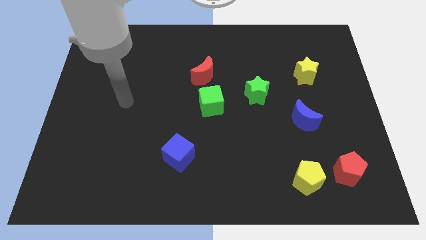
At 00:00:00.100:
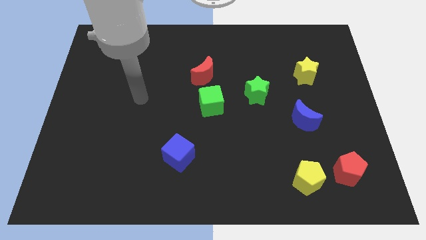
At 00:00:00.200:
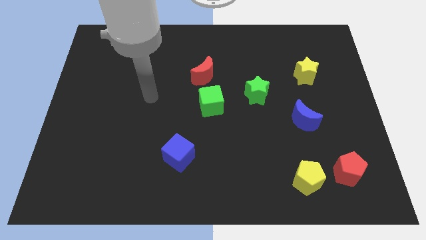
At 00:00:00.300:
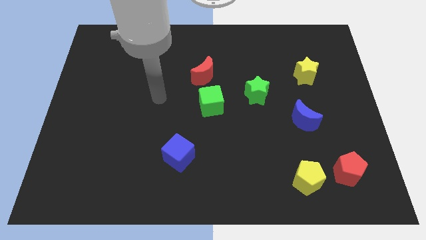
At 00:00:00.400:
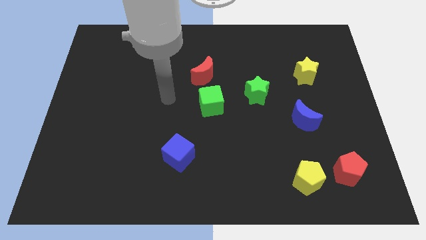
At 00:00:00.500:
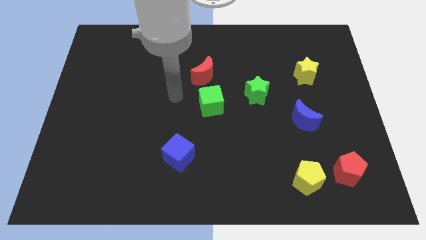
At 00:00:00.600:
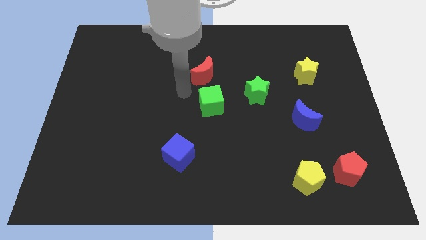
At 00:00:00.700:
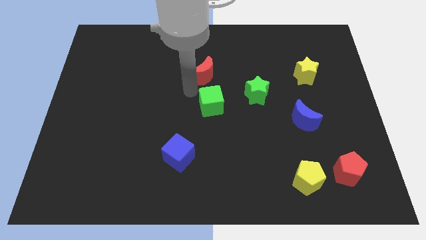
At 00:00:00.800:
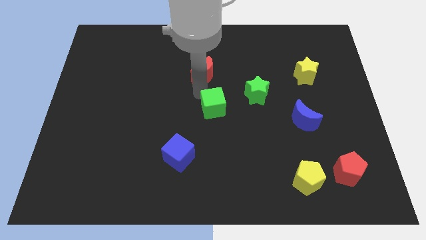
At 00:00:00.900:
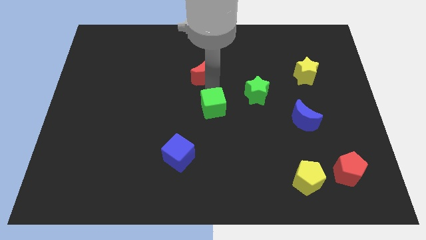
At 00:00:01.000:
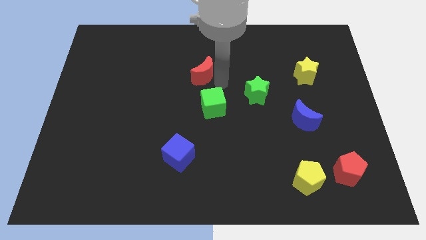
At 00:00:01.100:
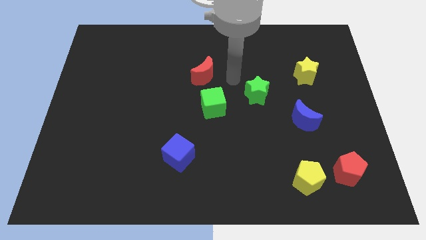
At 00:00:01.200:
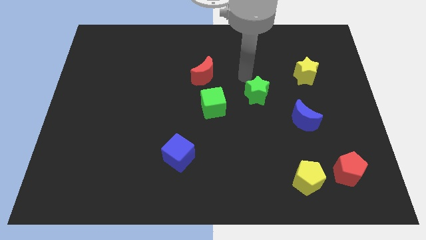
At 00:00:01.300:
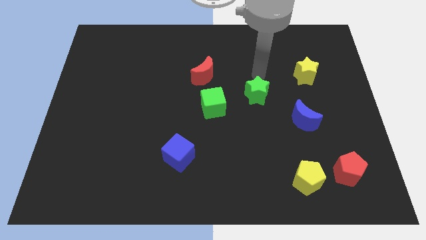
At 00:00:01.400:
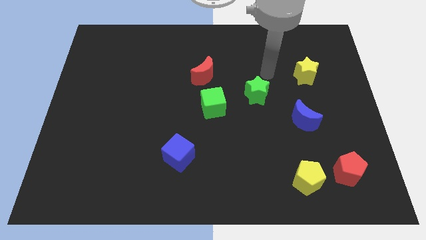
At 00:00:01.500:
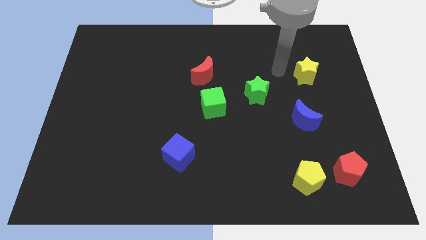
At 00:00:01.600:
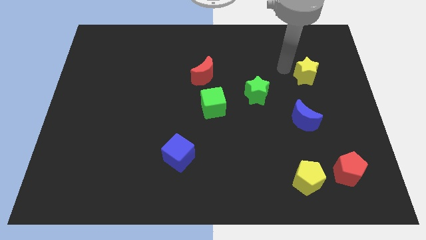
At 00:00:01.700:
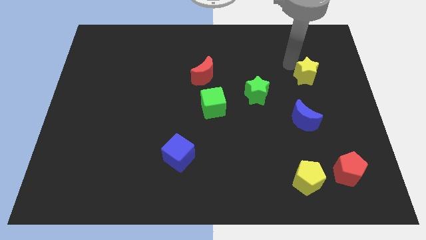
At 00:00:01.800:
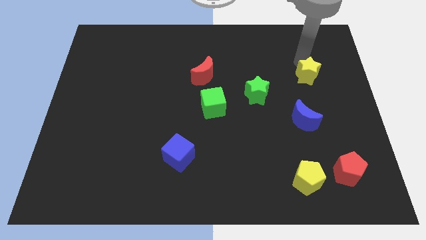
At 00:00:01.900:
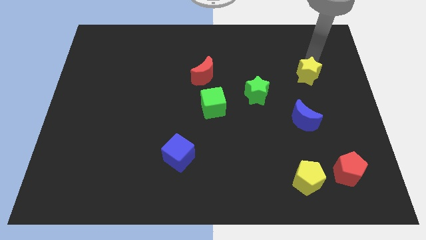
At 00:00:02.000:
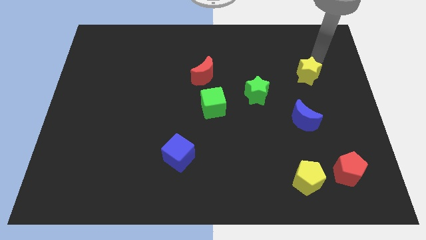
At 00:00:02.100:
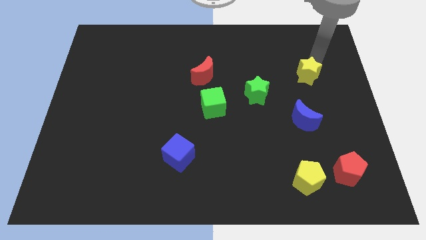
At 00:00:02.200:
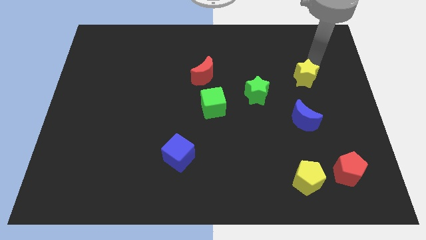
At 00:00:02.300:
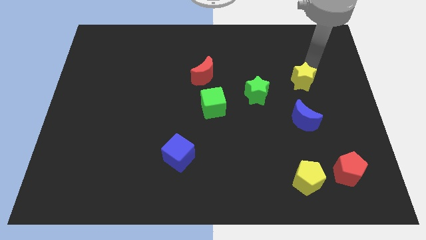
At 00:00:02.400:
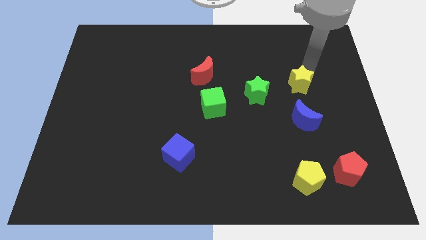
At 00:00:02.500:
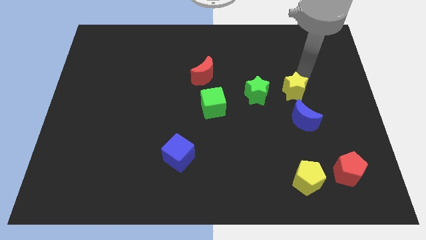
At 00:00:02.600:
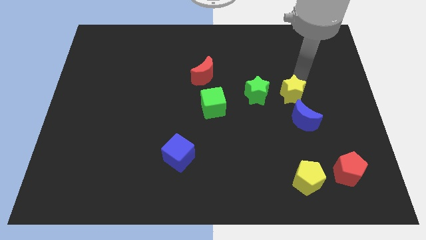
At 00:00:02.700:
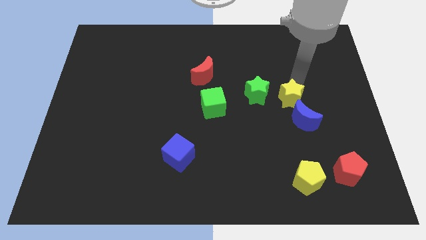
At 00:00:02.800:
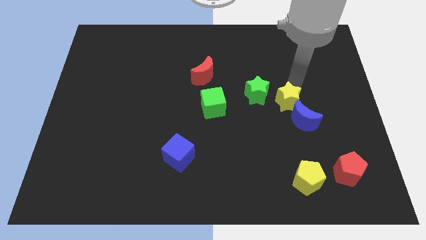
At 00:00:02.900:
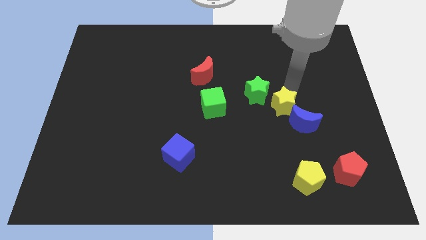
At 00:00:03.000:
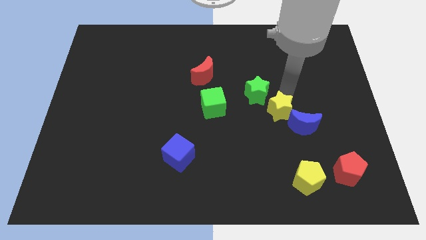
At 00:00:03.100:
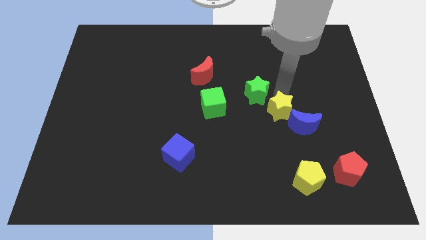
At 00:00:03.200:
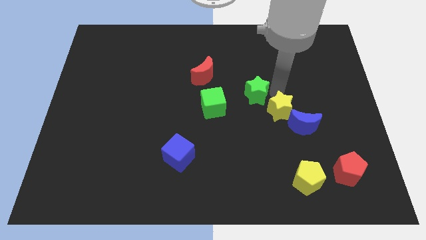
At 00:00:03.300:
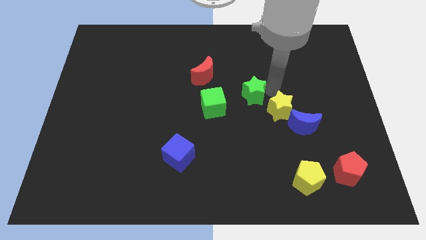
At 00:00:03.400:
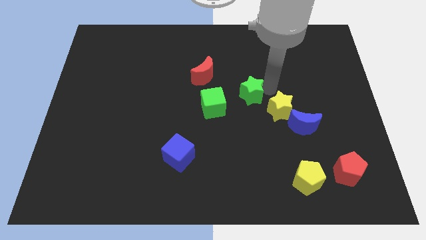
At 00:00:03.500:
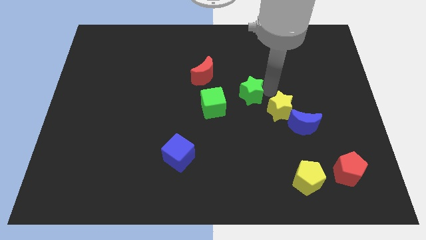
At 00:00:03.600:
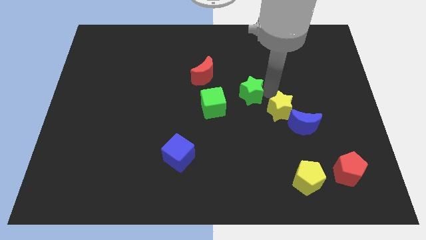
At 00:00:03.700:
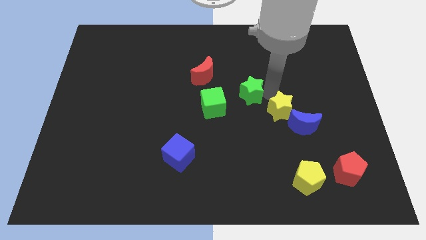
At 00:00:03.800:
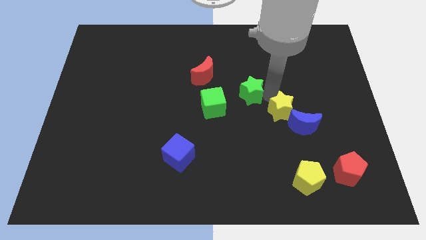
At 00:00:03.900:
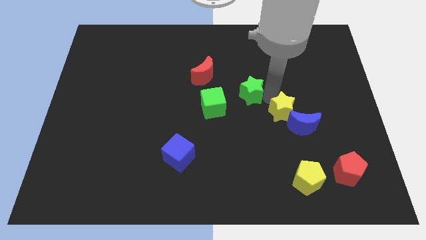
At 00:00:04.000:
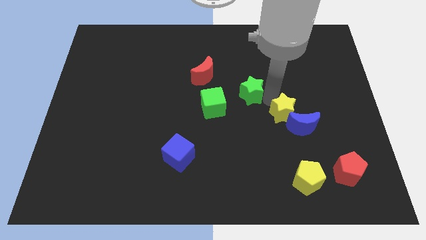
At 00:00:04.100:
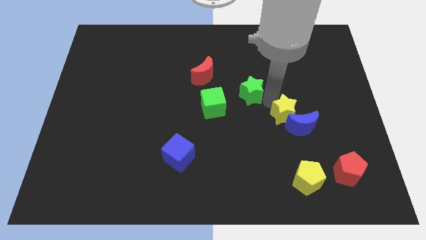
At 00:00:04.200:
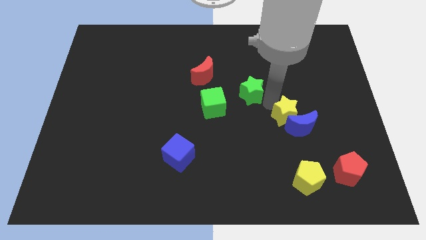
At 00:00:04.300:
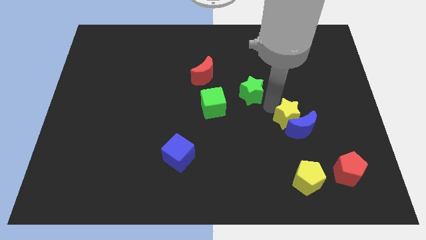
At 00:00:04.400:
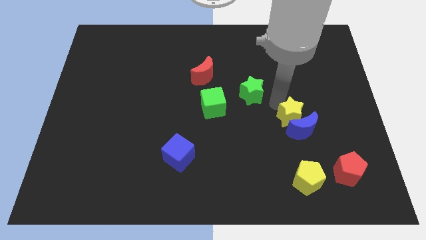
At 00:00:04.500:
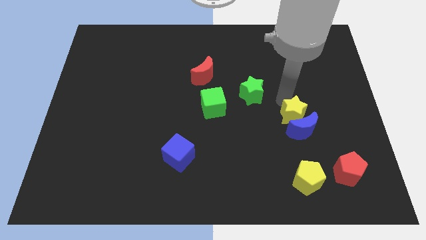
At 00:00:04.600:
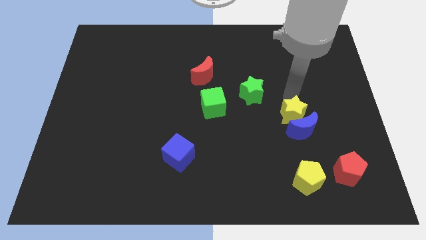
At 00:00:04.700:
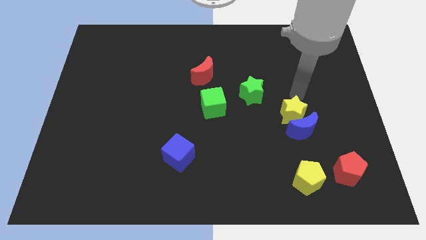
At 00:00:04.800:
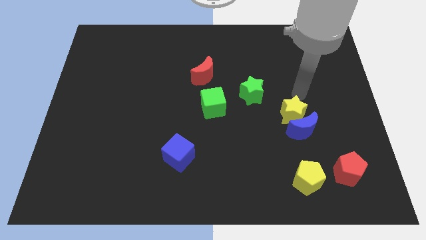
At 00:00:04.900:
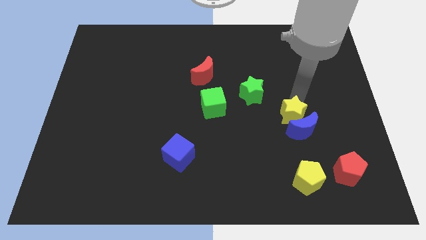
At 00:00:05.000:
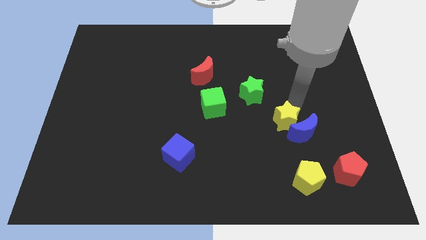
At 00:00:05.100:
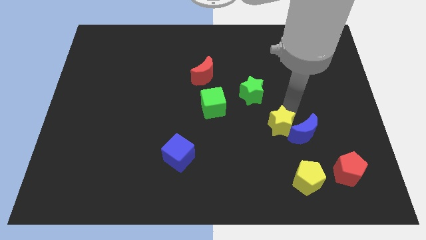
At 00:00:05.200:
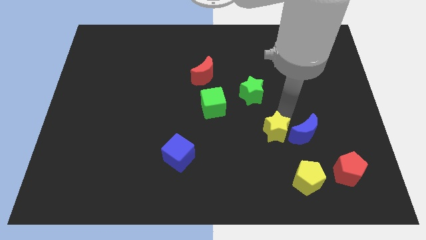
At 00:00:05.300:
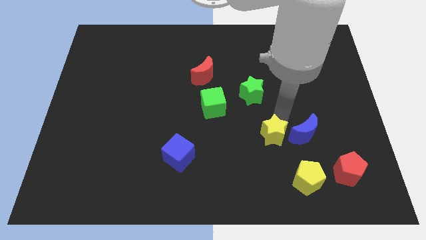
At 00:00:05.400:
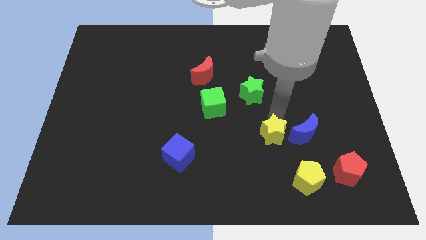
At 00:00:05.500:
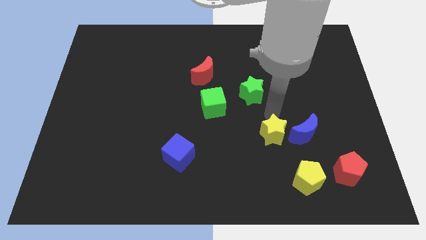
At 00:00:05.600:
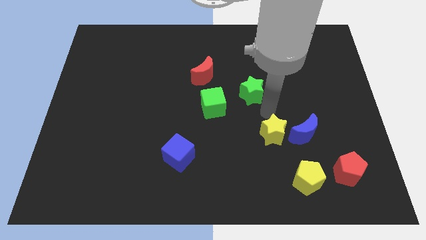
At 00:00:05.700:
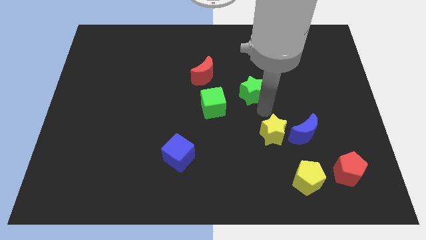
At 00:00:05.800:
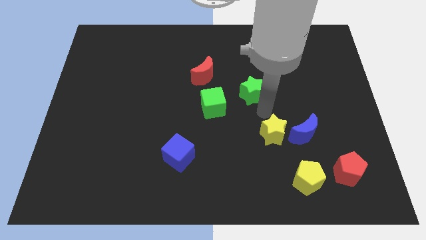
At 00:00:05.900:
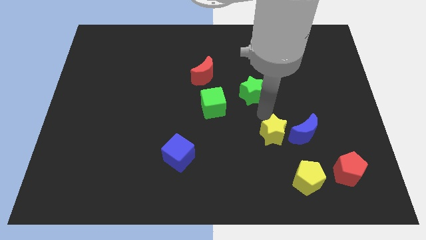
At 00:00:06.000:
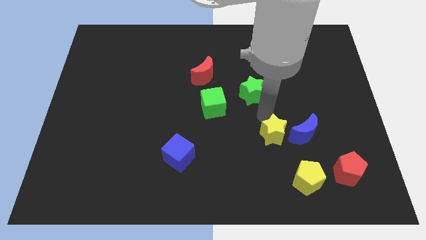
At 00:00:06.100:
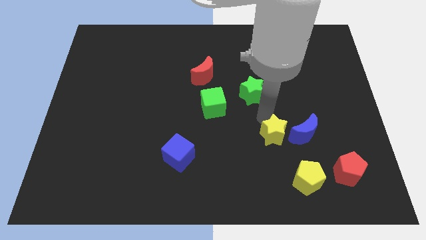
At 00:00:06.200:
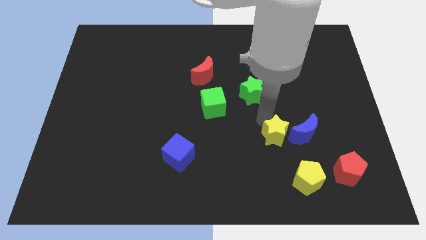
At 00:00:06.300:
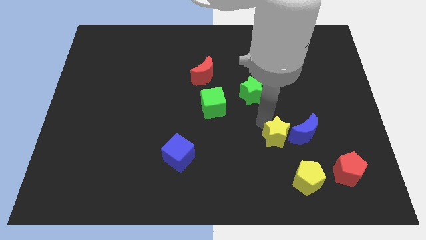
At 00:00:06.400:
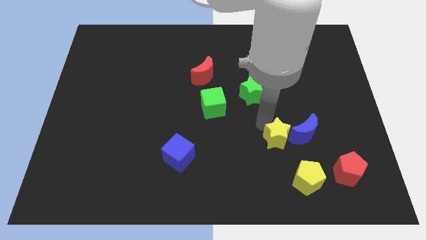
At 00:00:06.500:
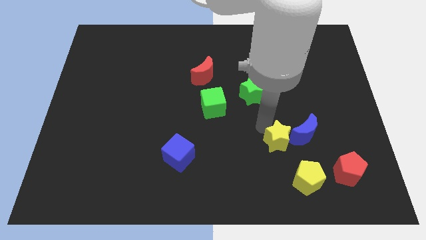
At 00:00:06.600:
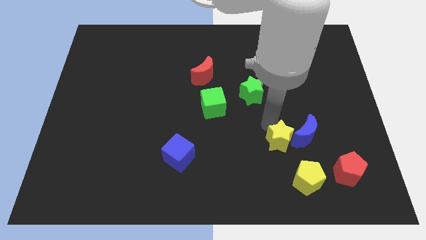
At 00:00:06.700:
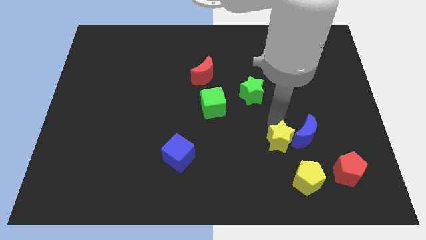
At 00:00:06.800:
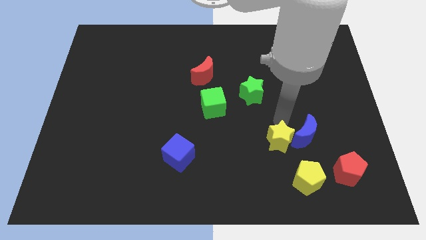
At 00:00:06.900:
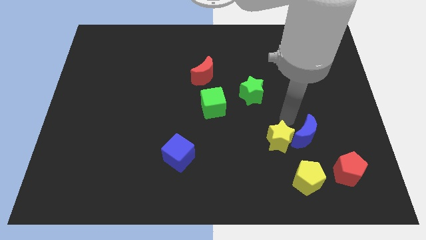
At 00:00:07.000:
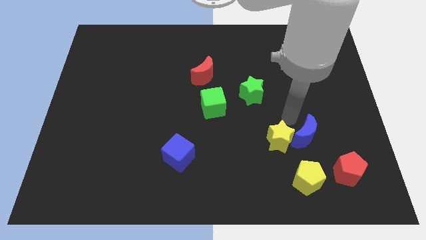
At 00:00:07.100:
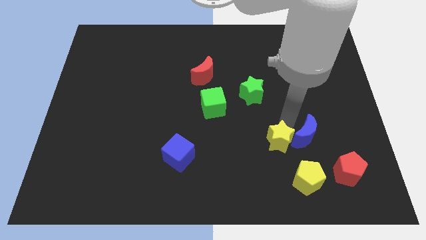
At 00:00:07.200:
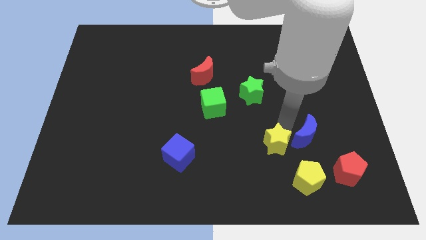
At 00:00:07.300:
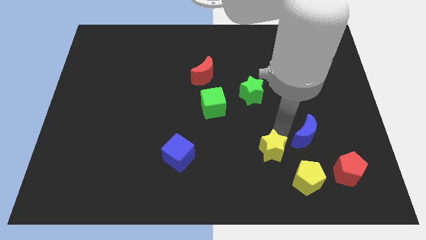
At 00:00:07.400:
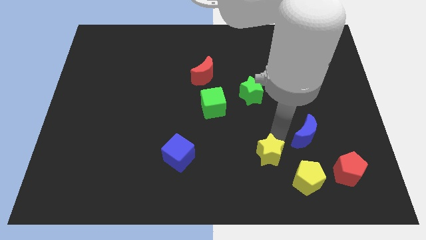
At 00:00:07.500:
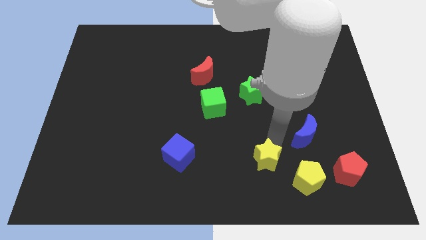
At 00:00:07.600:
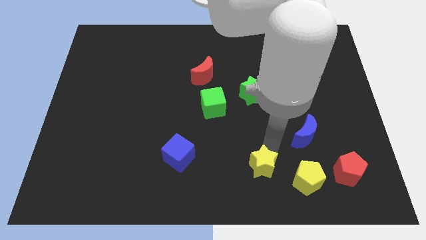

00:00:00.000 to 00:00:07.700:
put the yellow star to the left of the yellow pentagon
